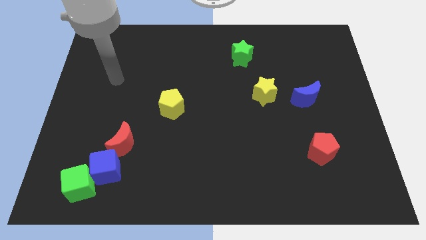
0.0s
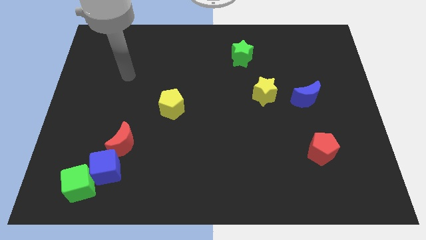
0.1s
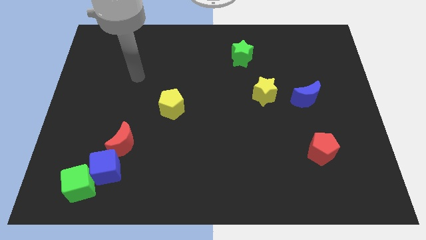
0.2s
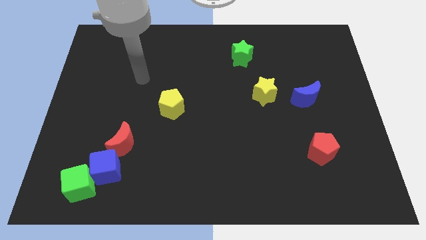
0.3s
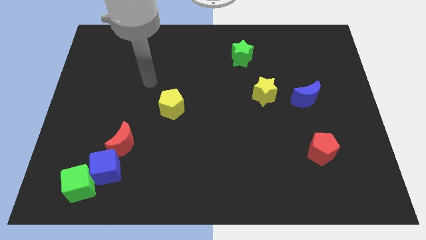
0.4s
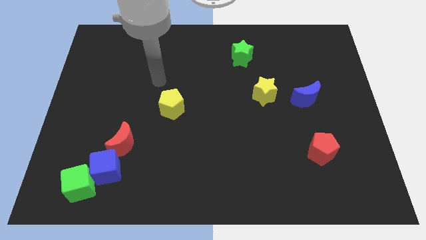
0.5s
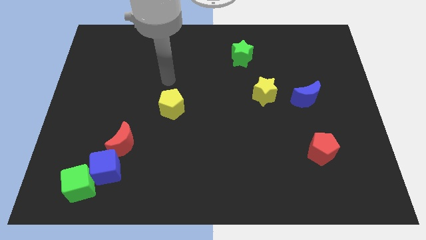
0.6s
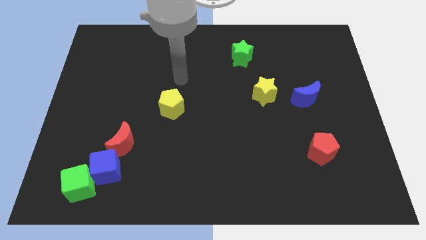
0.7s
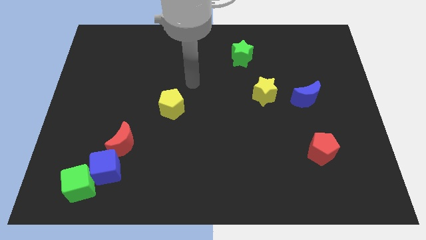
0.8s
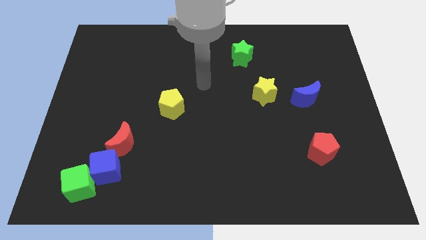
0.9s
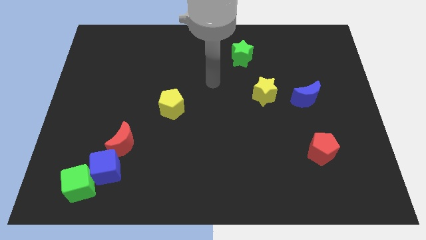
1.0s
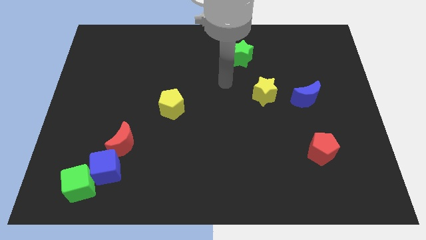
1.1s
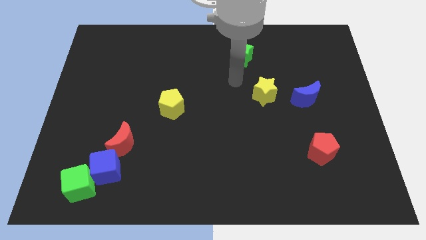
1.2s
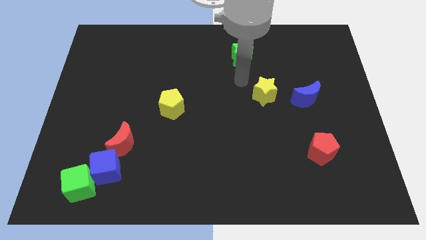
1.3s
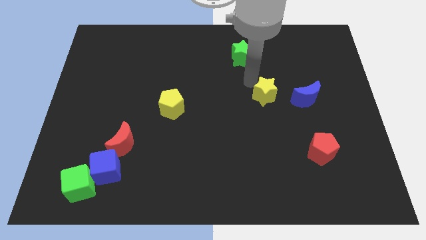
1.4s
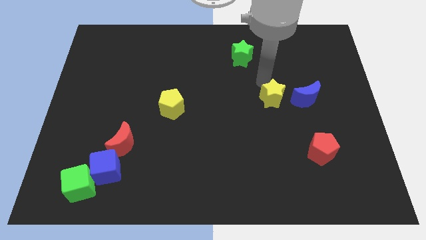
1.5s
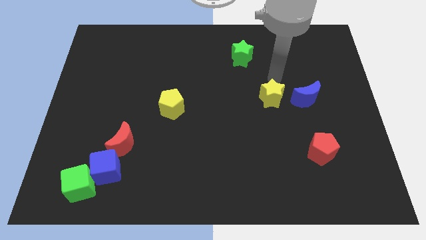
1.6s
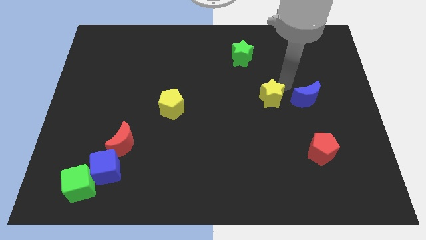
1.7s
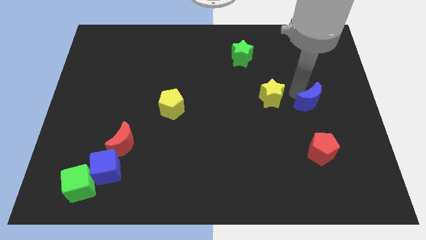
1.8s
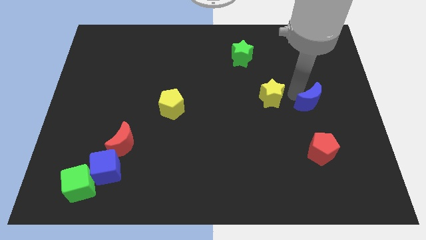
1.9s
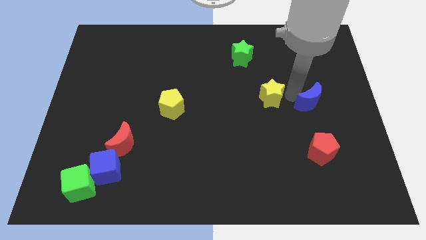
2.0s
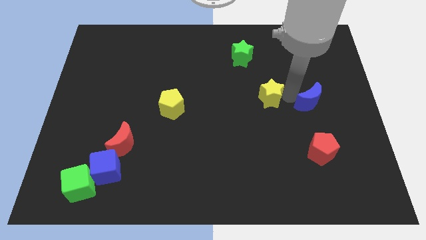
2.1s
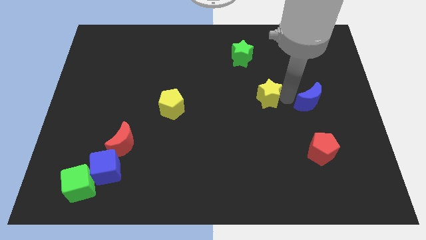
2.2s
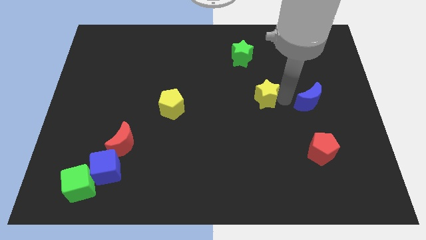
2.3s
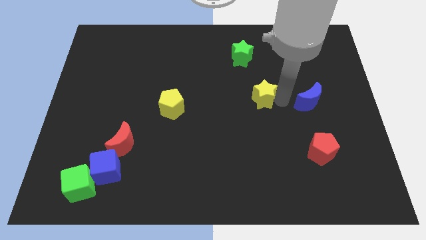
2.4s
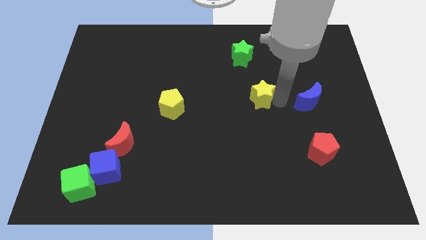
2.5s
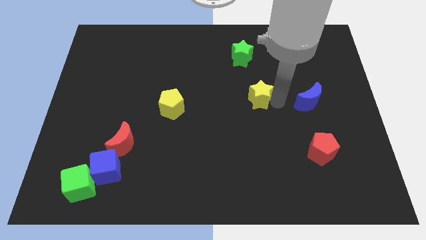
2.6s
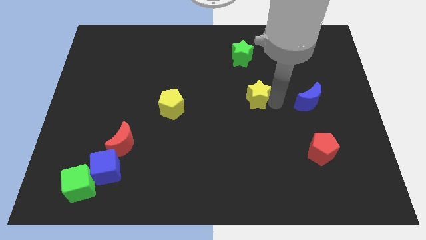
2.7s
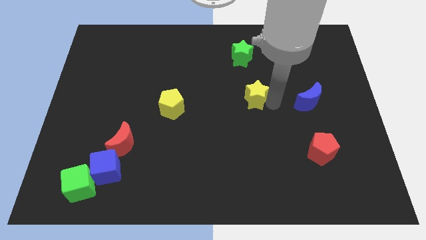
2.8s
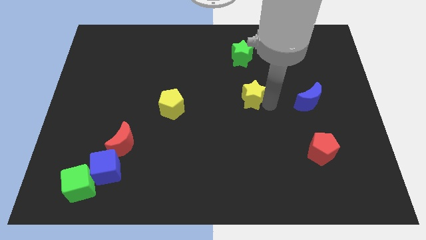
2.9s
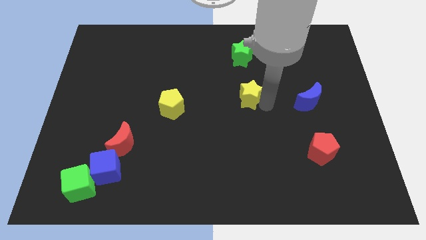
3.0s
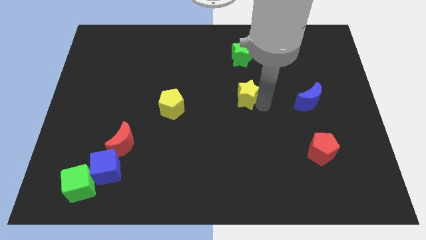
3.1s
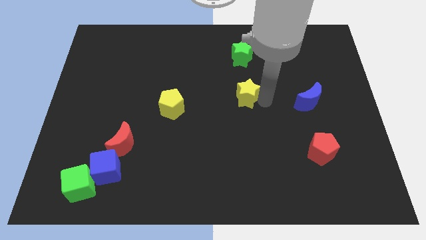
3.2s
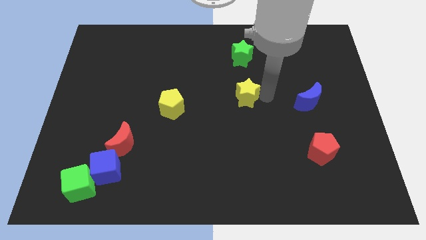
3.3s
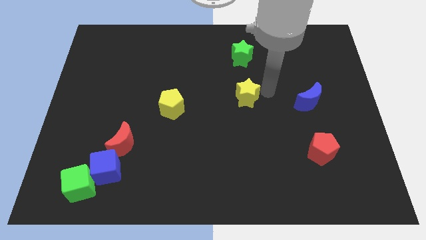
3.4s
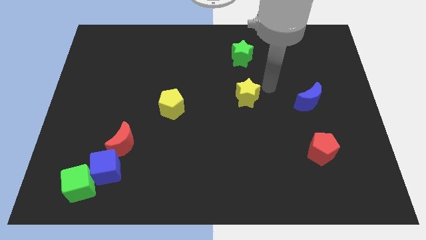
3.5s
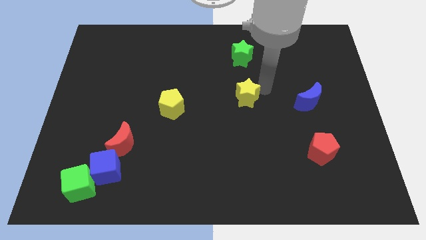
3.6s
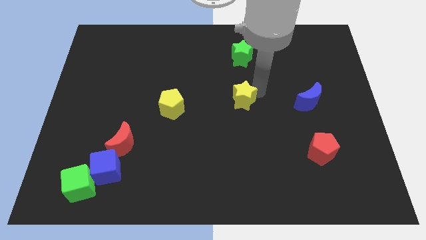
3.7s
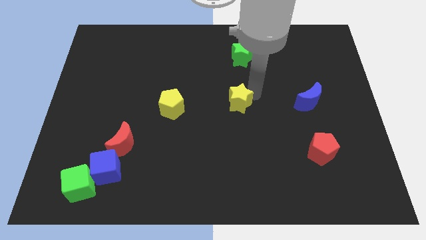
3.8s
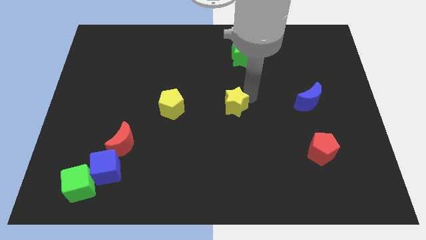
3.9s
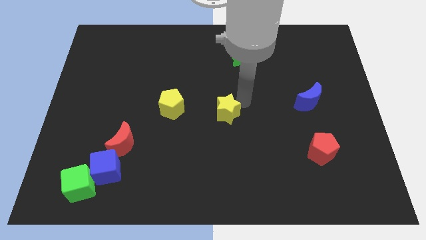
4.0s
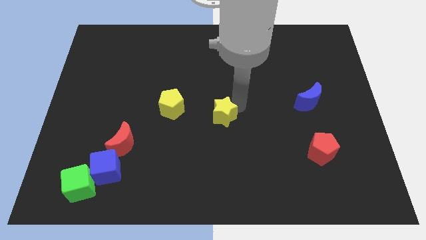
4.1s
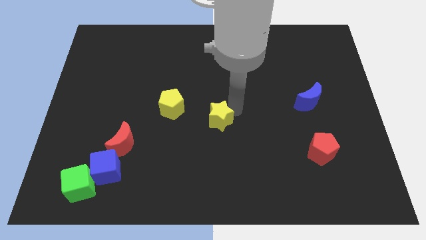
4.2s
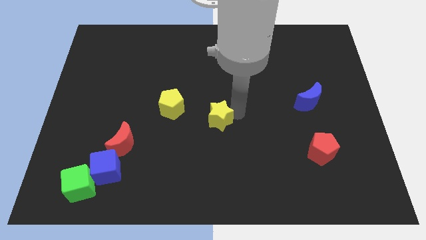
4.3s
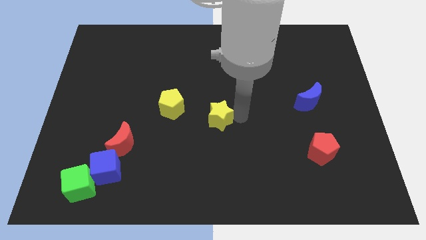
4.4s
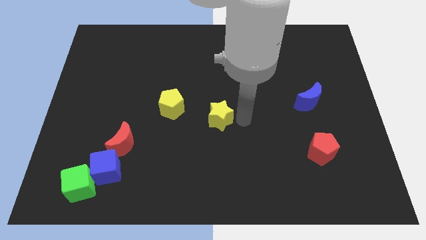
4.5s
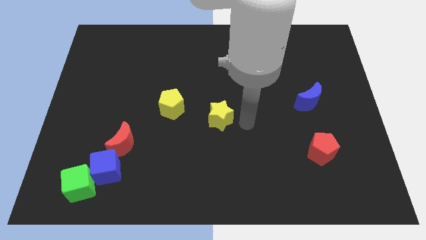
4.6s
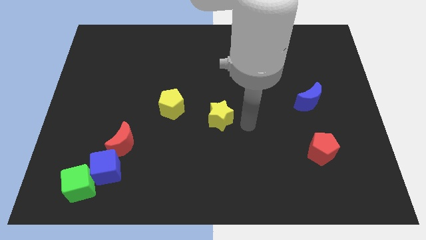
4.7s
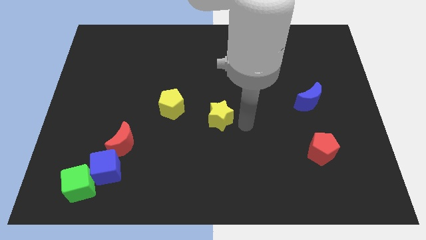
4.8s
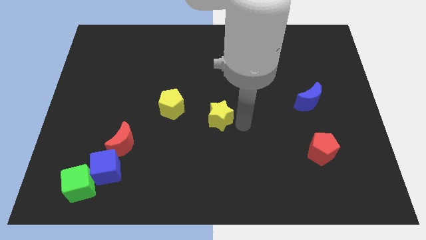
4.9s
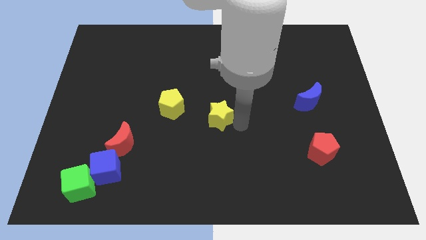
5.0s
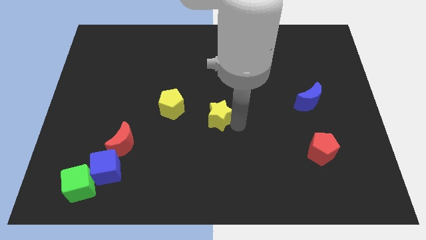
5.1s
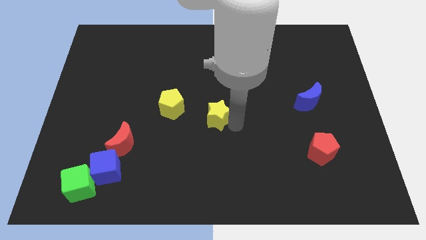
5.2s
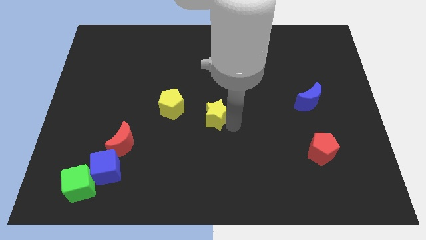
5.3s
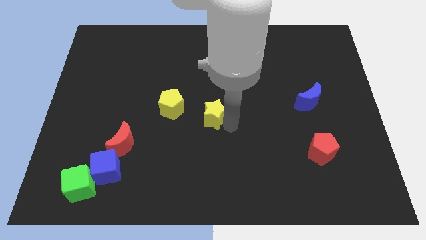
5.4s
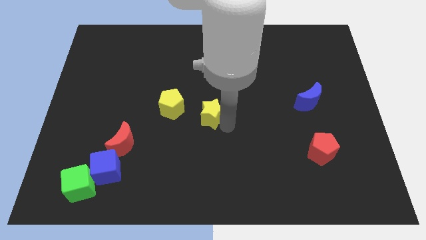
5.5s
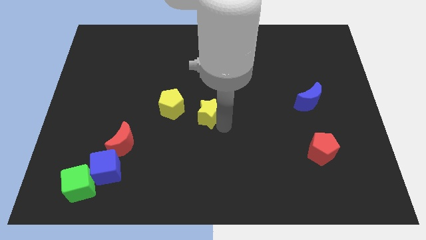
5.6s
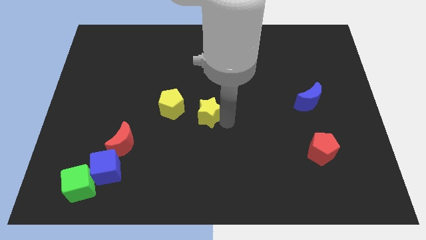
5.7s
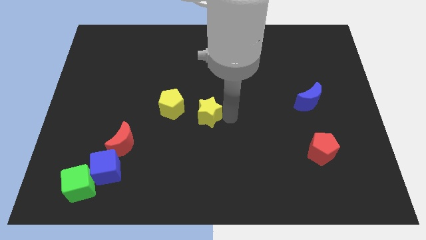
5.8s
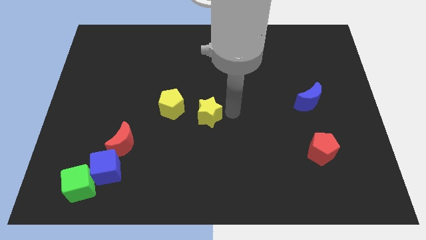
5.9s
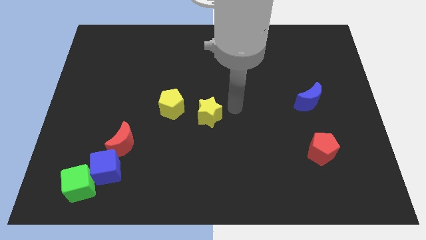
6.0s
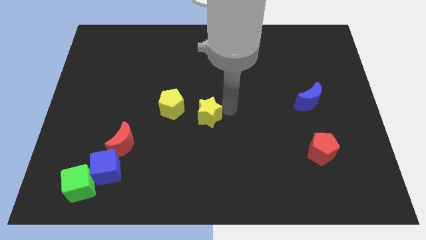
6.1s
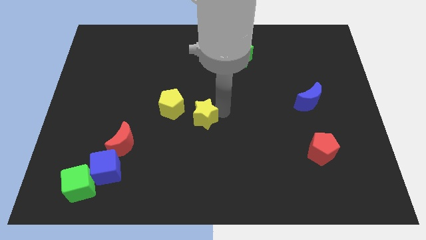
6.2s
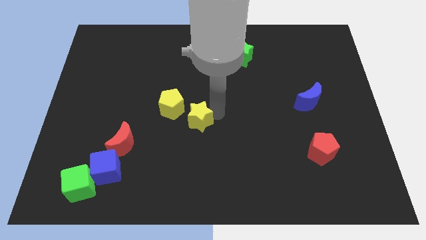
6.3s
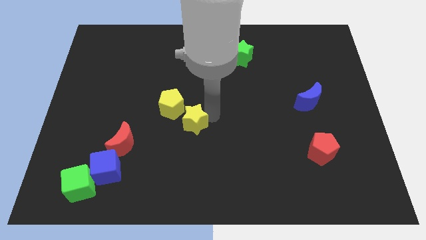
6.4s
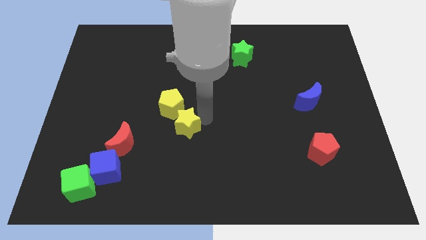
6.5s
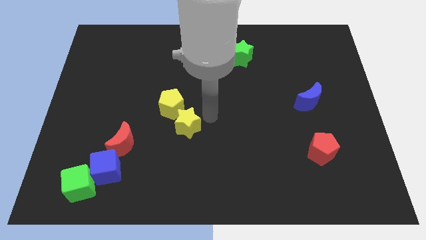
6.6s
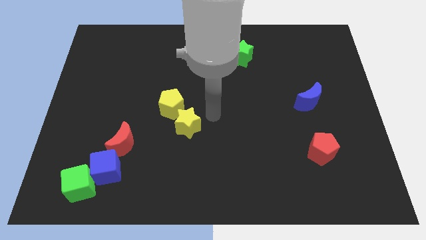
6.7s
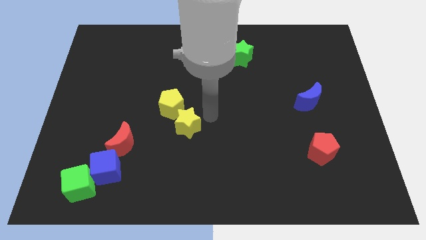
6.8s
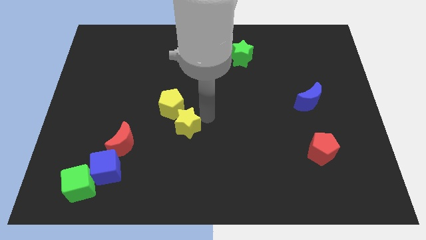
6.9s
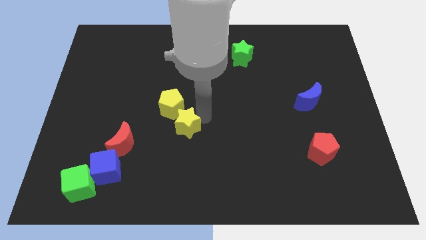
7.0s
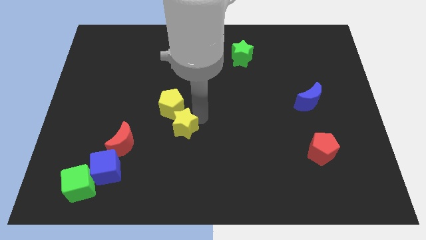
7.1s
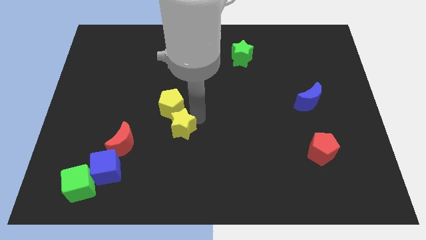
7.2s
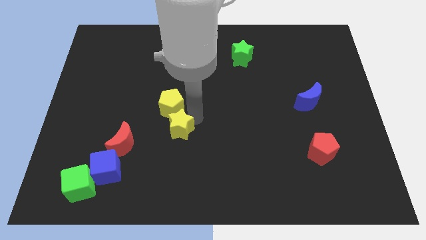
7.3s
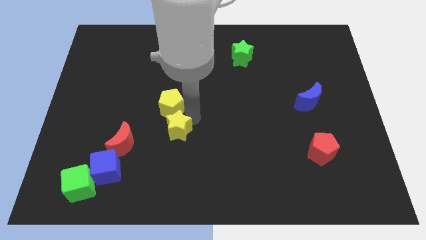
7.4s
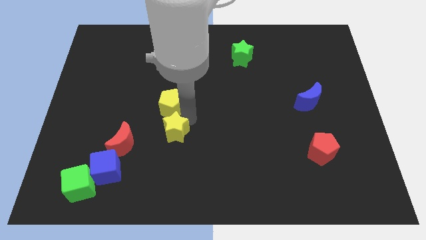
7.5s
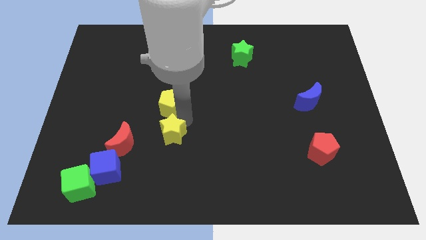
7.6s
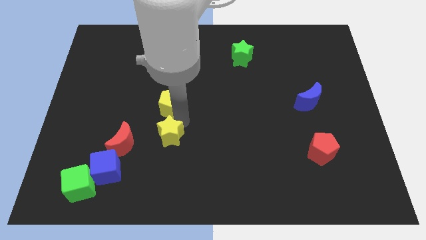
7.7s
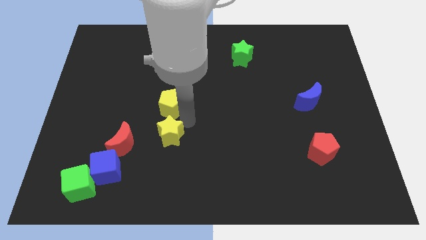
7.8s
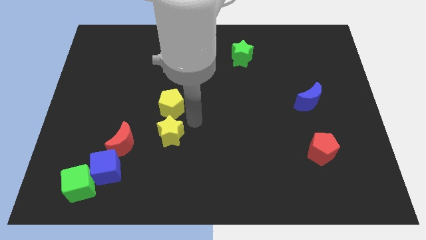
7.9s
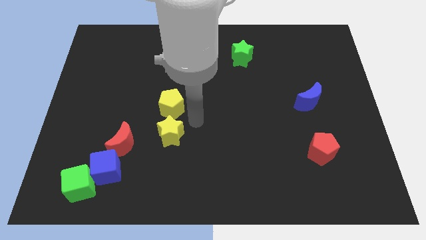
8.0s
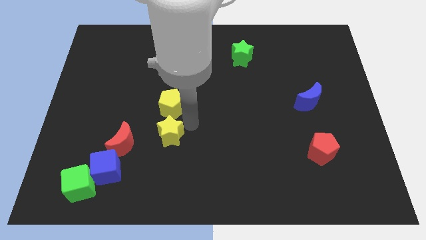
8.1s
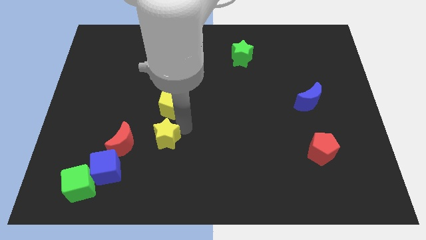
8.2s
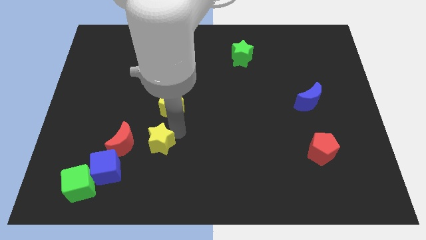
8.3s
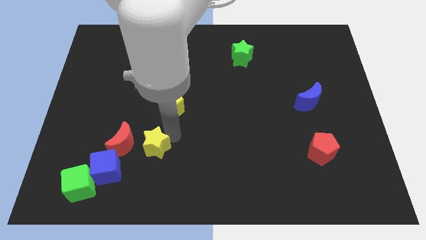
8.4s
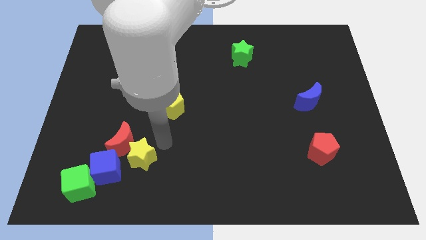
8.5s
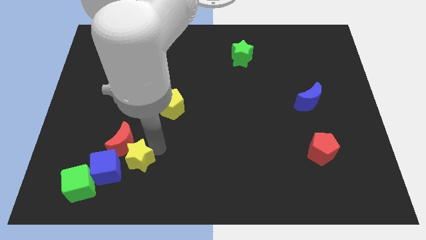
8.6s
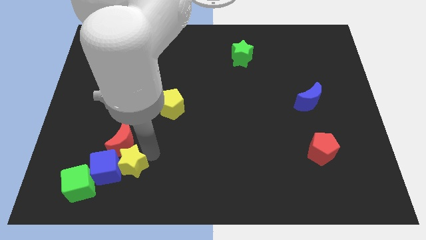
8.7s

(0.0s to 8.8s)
put the yellow star next to the blue cube
